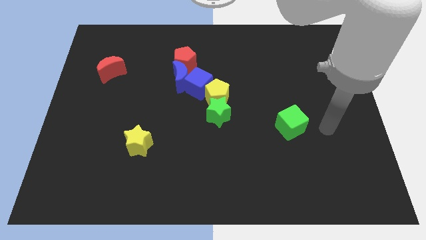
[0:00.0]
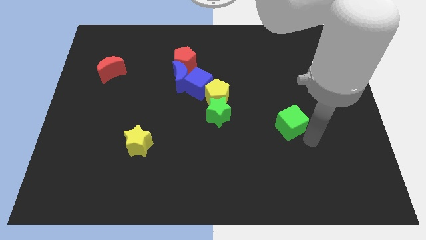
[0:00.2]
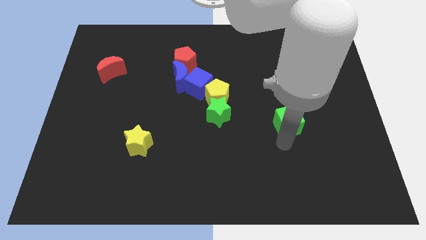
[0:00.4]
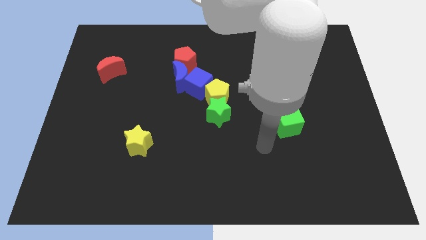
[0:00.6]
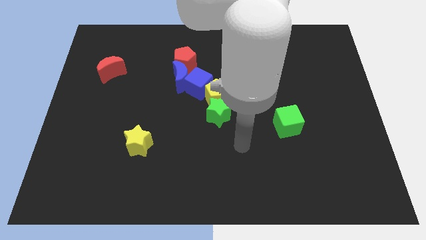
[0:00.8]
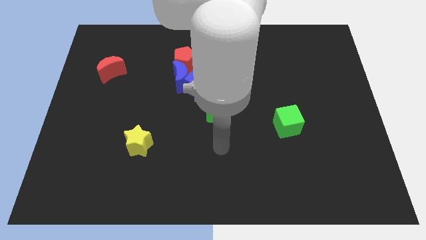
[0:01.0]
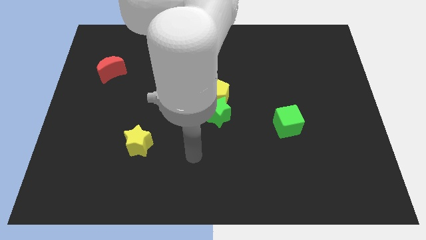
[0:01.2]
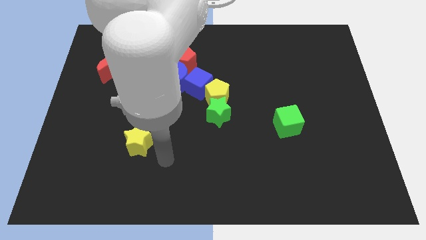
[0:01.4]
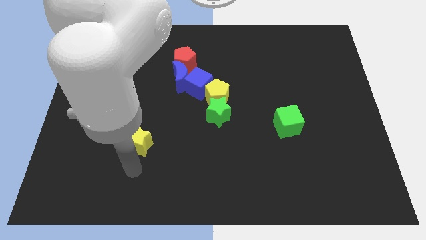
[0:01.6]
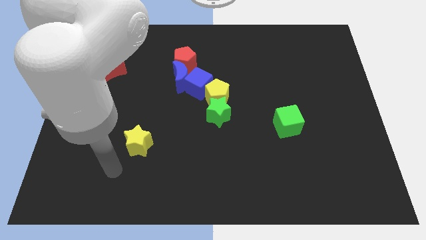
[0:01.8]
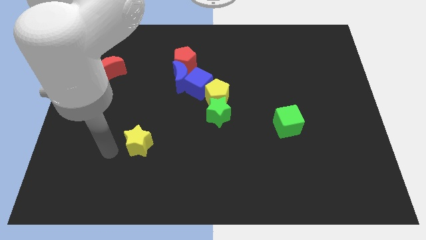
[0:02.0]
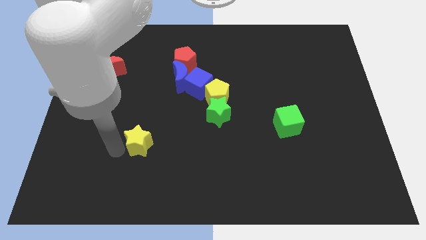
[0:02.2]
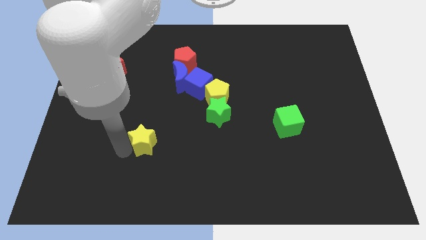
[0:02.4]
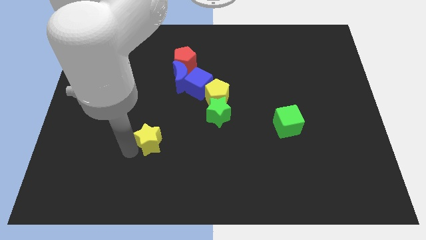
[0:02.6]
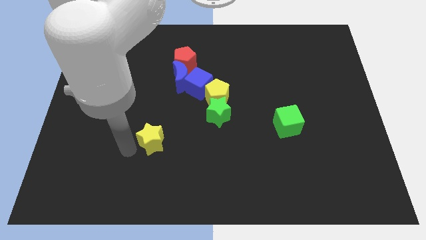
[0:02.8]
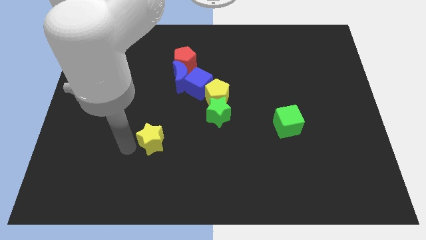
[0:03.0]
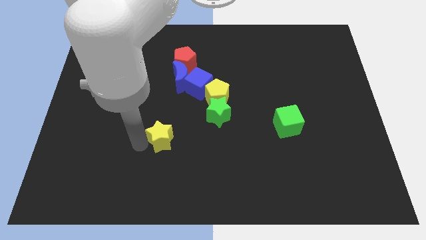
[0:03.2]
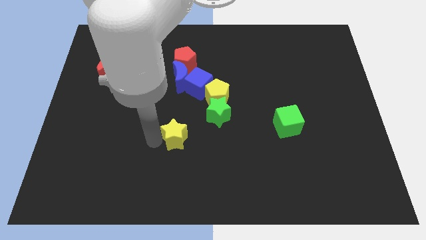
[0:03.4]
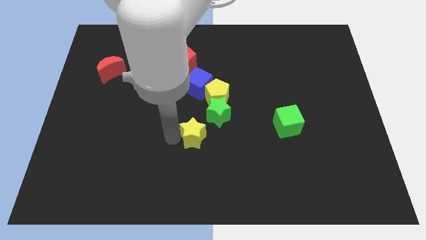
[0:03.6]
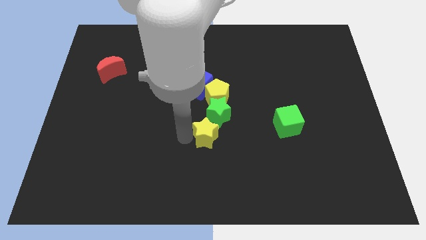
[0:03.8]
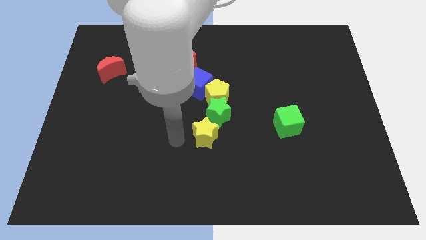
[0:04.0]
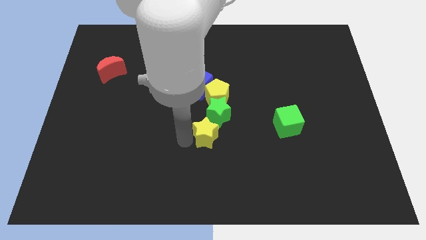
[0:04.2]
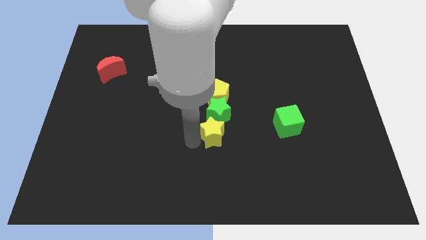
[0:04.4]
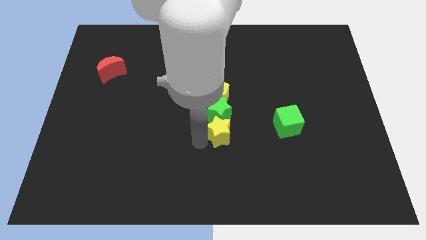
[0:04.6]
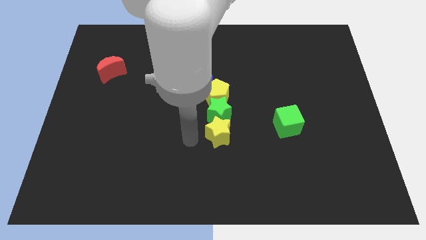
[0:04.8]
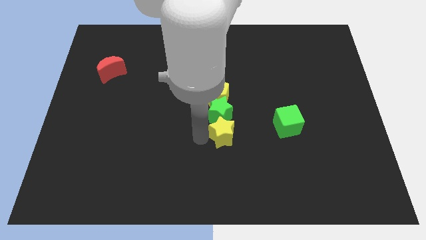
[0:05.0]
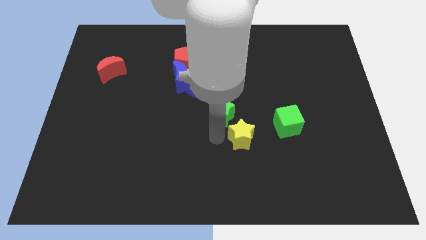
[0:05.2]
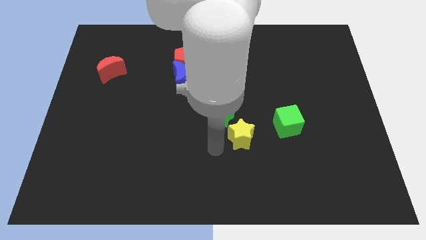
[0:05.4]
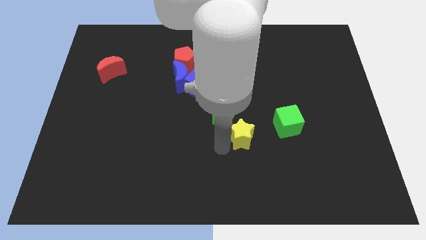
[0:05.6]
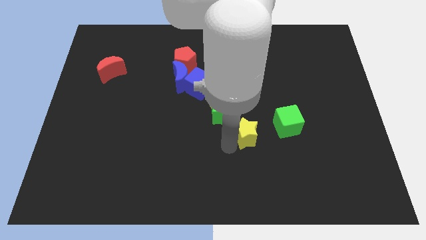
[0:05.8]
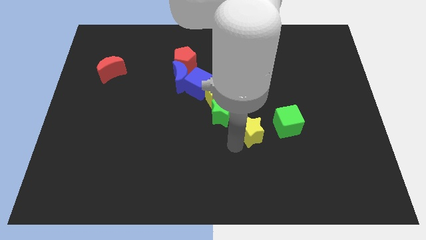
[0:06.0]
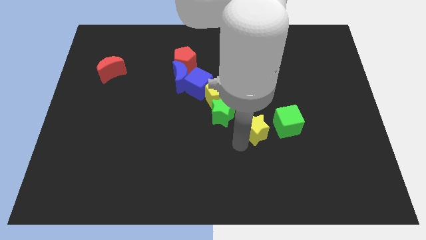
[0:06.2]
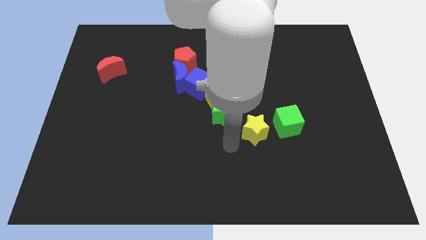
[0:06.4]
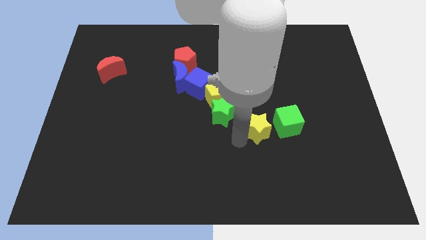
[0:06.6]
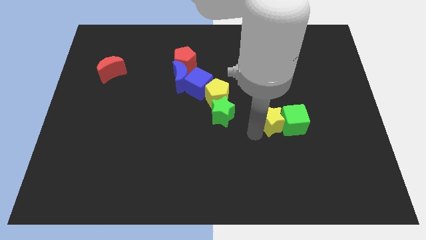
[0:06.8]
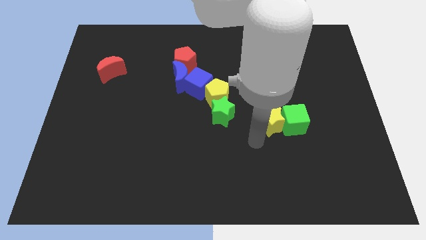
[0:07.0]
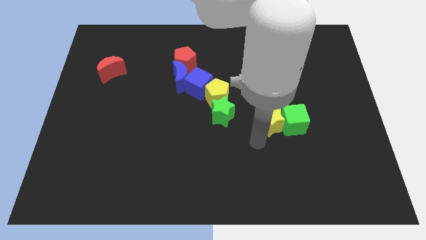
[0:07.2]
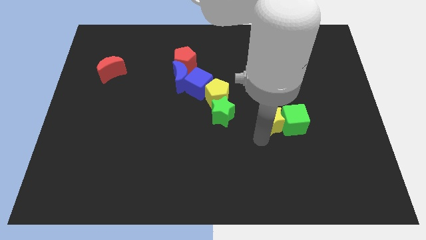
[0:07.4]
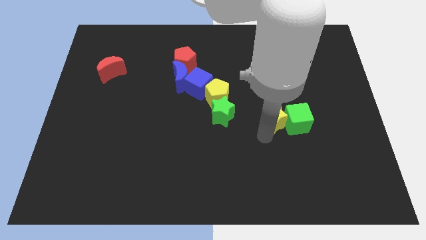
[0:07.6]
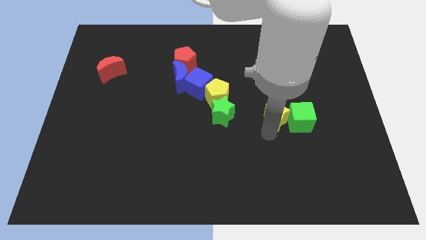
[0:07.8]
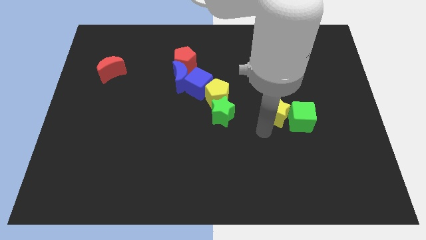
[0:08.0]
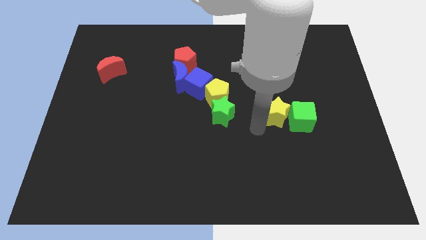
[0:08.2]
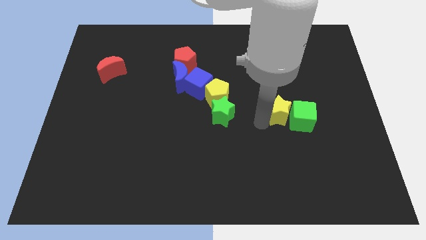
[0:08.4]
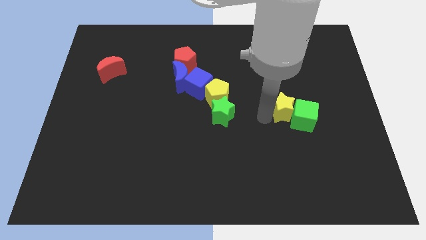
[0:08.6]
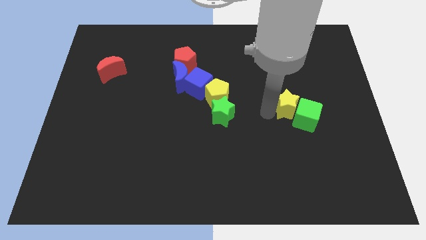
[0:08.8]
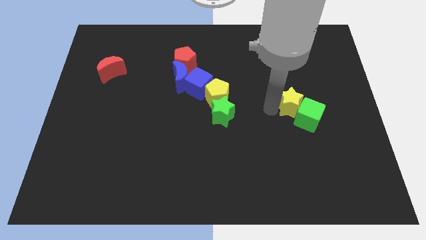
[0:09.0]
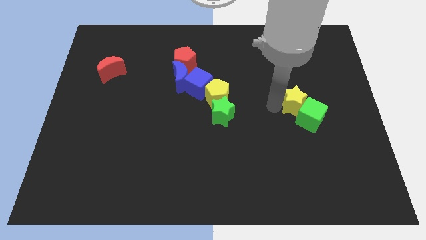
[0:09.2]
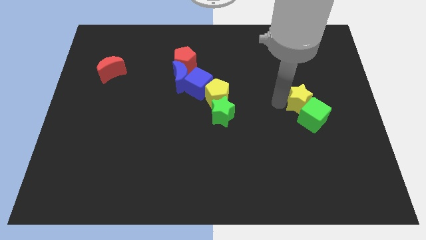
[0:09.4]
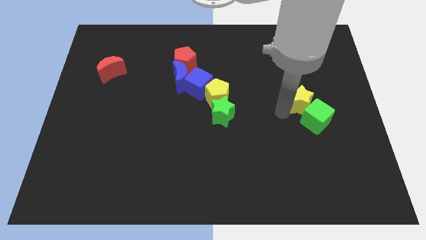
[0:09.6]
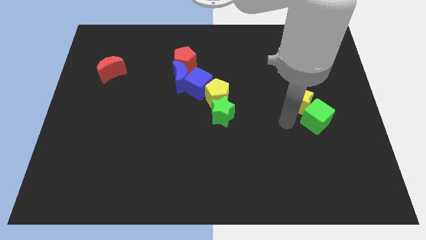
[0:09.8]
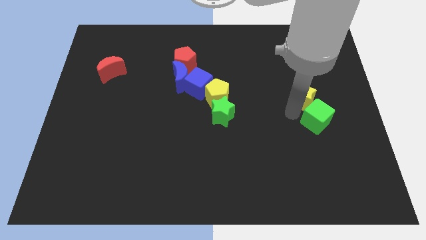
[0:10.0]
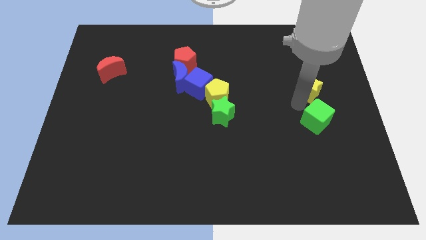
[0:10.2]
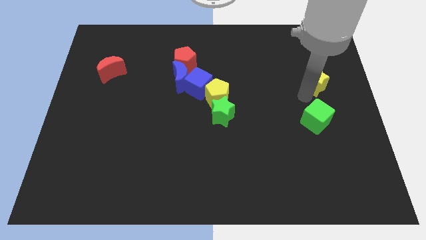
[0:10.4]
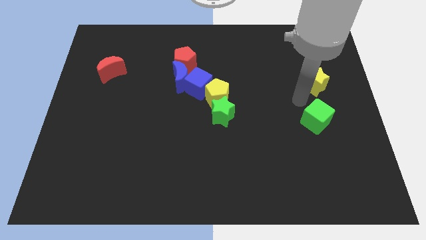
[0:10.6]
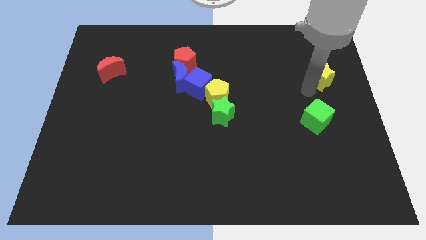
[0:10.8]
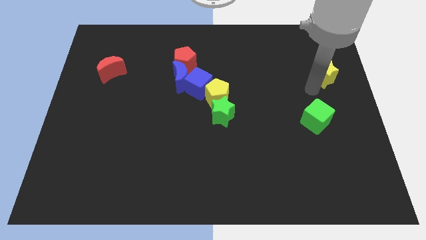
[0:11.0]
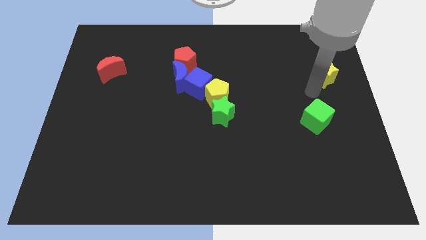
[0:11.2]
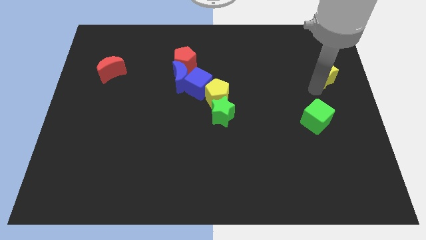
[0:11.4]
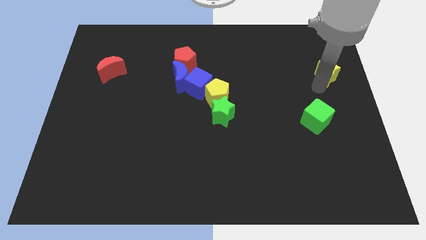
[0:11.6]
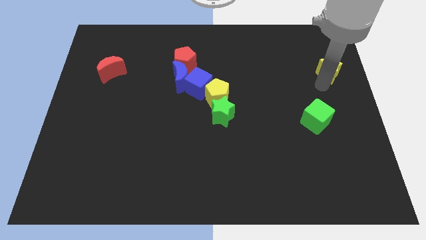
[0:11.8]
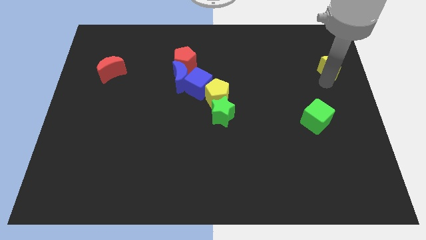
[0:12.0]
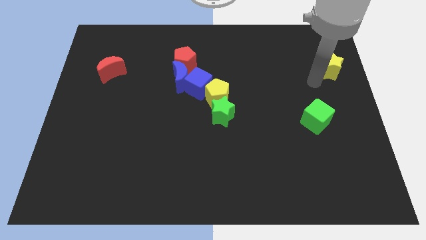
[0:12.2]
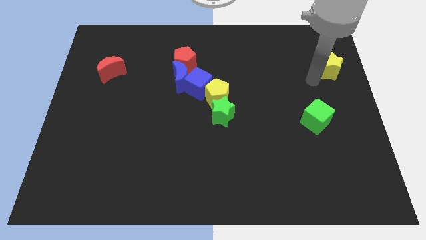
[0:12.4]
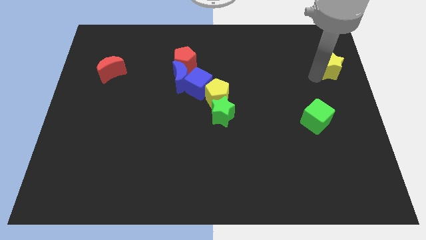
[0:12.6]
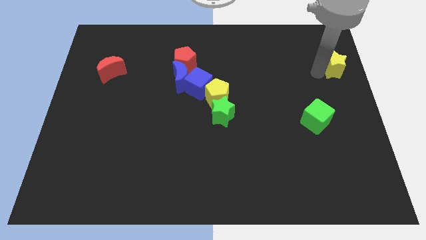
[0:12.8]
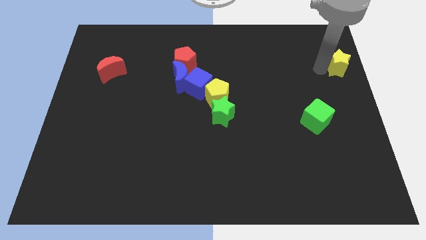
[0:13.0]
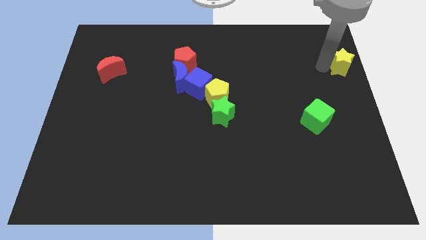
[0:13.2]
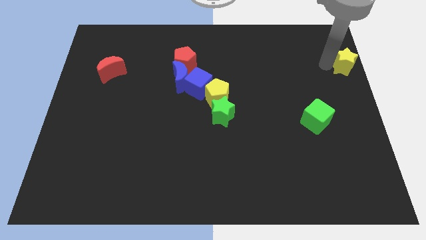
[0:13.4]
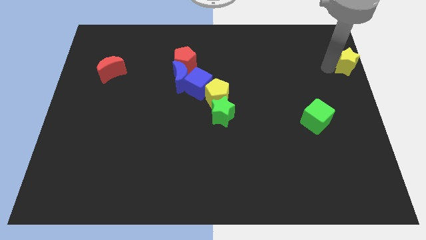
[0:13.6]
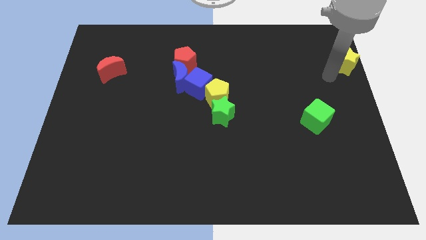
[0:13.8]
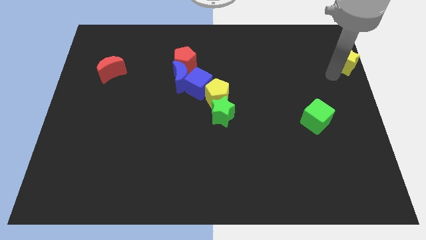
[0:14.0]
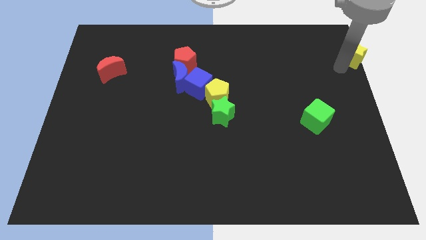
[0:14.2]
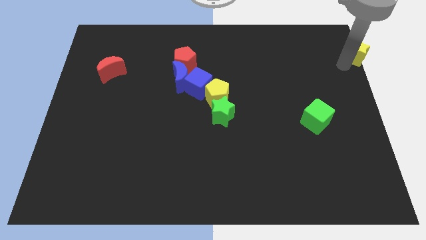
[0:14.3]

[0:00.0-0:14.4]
put the yellow star to the top right of the board

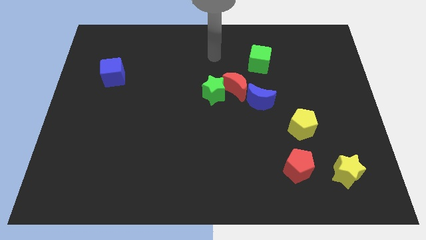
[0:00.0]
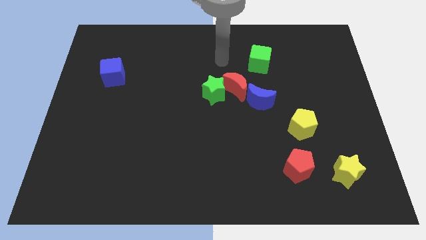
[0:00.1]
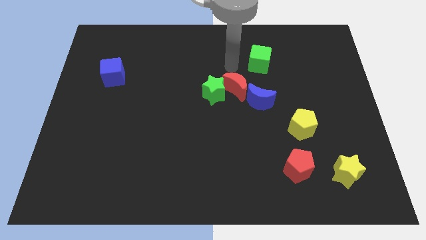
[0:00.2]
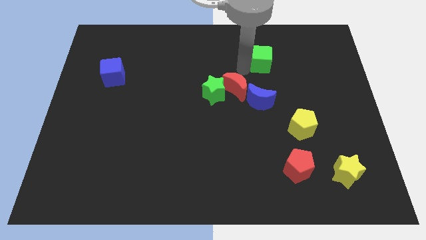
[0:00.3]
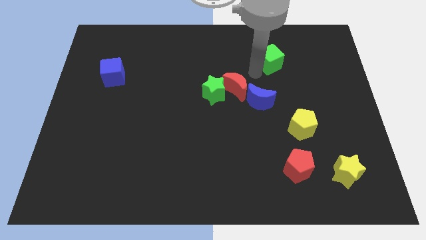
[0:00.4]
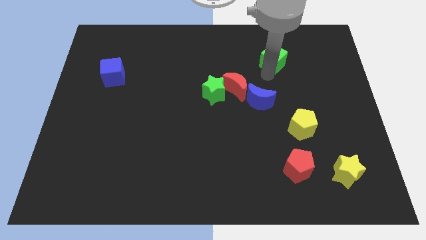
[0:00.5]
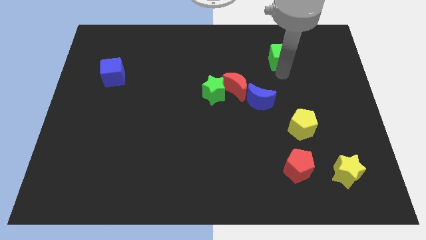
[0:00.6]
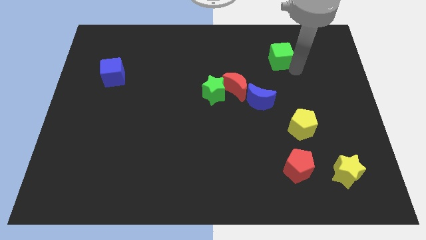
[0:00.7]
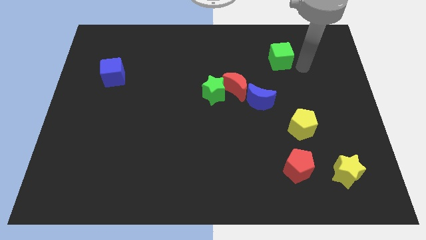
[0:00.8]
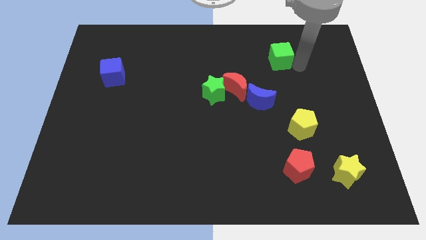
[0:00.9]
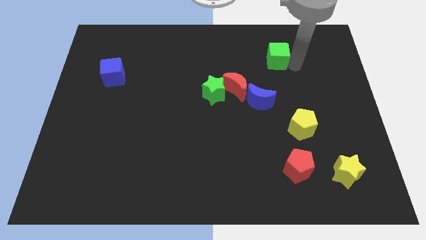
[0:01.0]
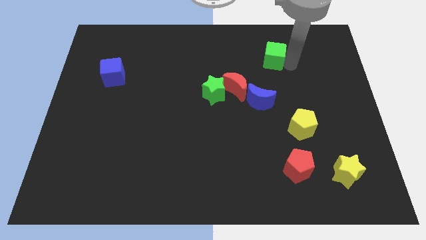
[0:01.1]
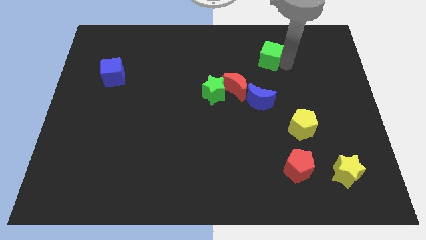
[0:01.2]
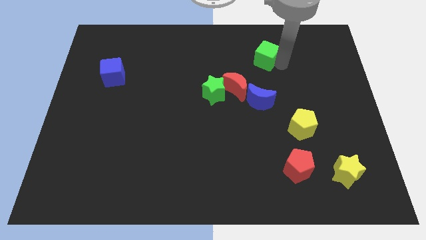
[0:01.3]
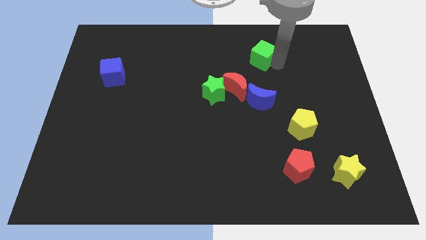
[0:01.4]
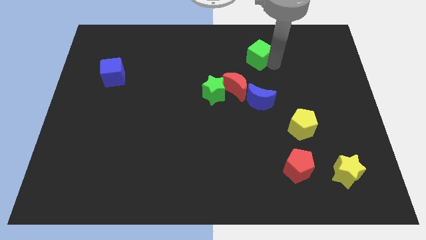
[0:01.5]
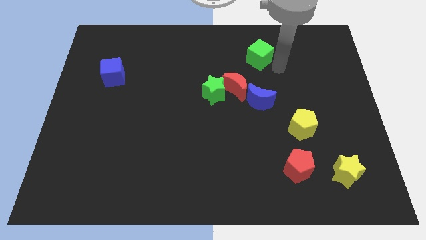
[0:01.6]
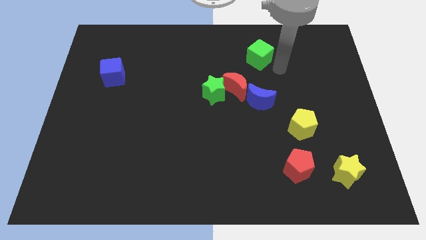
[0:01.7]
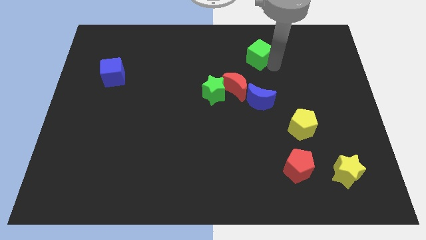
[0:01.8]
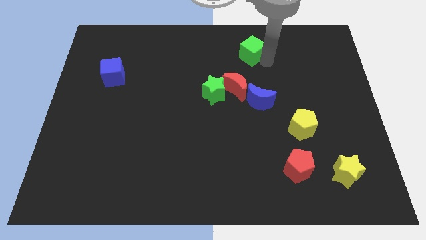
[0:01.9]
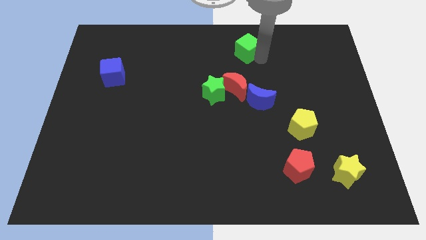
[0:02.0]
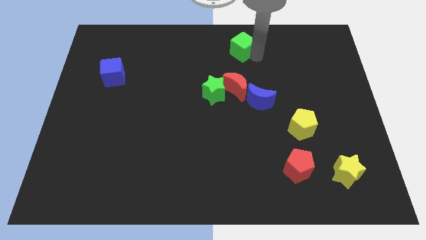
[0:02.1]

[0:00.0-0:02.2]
put the green cube to the towards your base
